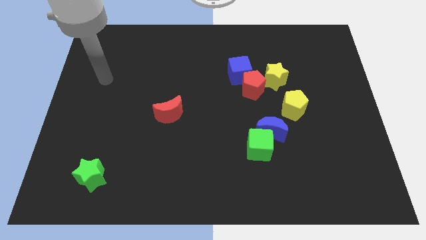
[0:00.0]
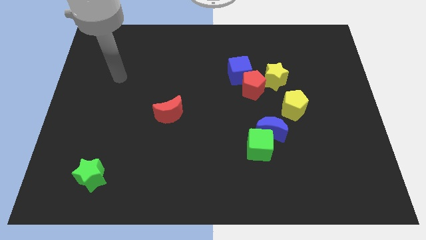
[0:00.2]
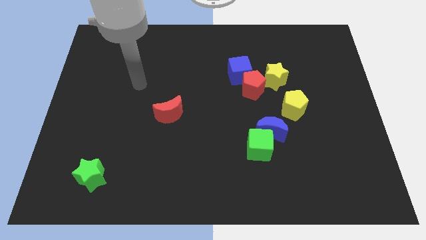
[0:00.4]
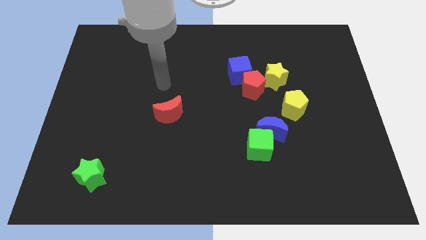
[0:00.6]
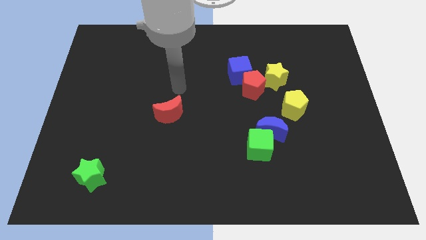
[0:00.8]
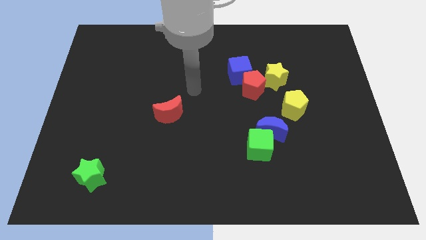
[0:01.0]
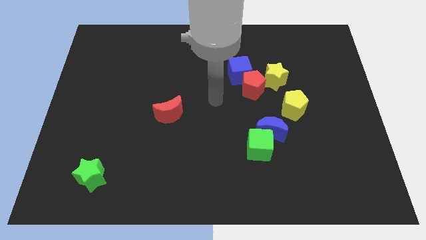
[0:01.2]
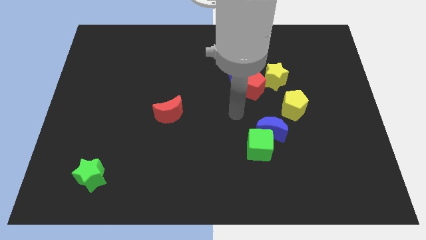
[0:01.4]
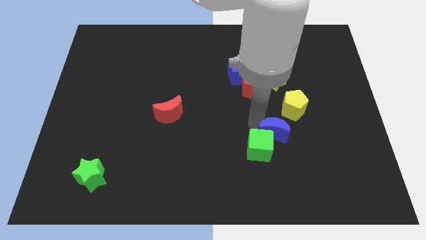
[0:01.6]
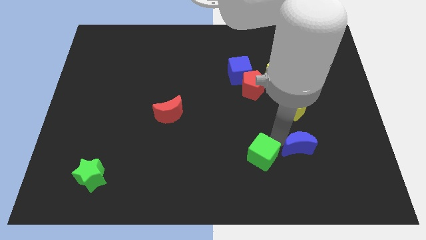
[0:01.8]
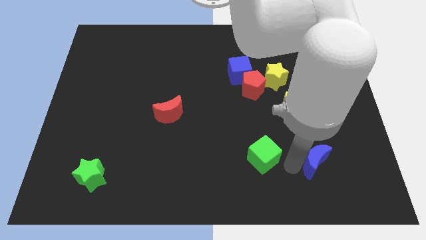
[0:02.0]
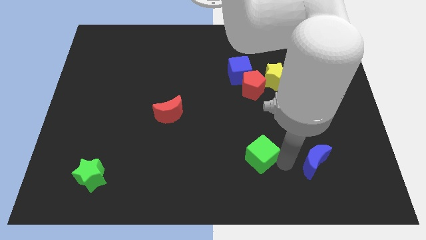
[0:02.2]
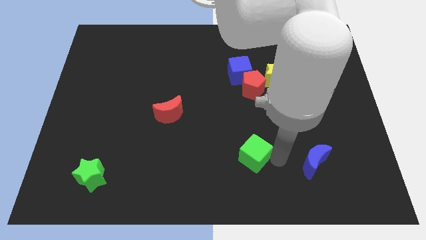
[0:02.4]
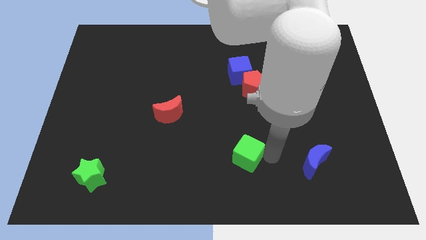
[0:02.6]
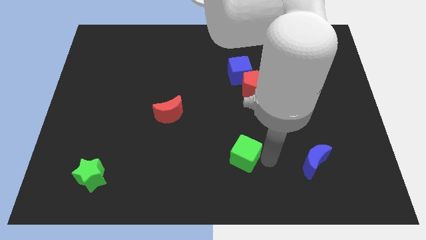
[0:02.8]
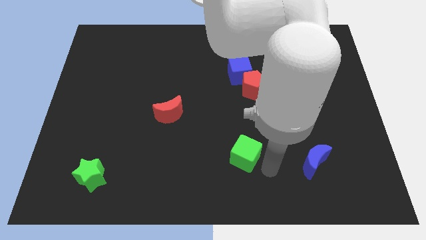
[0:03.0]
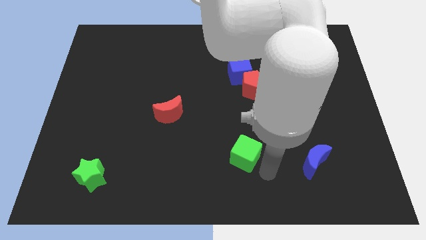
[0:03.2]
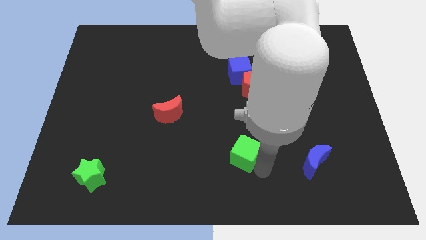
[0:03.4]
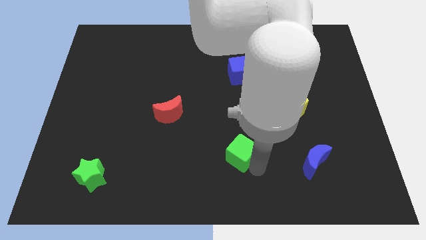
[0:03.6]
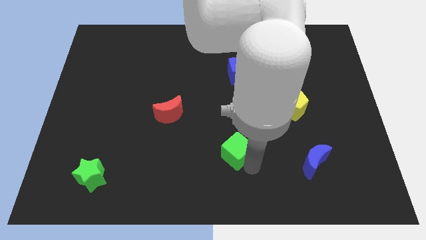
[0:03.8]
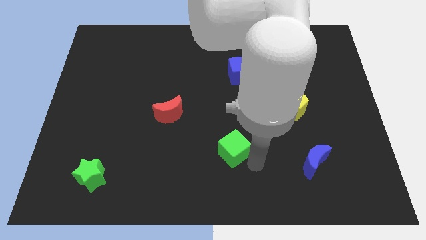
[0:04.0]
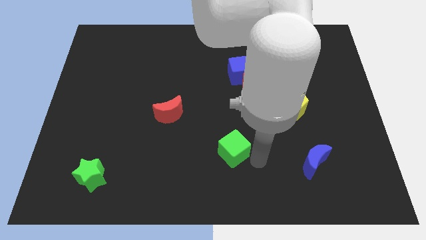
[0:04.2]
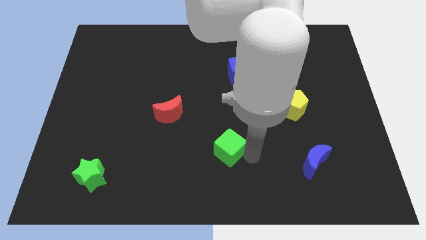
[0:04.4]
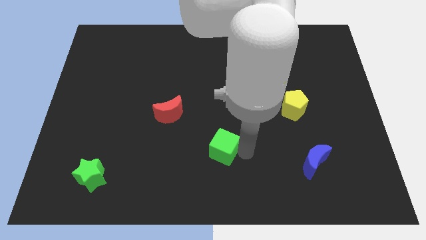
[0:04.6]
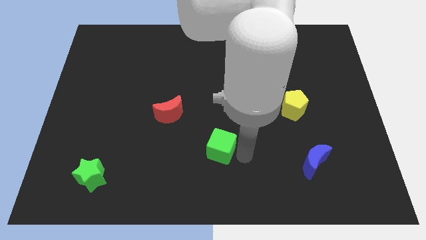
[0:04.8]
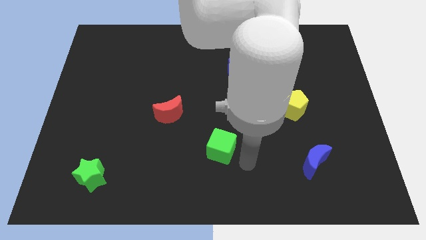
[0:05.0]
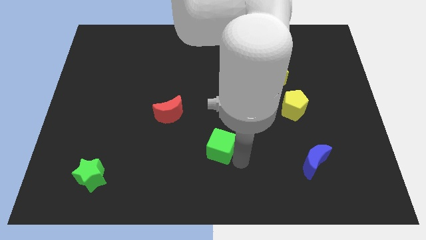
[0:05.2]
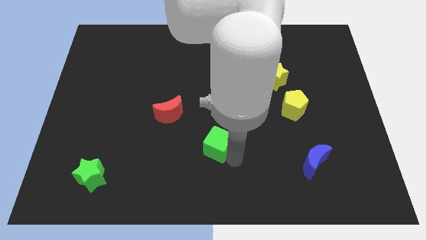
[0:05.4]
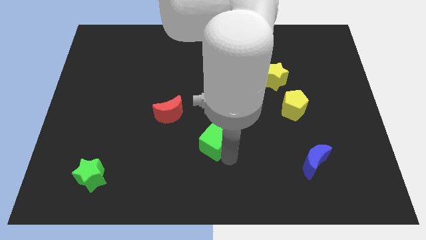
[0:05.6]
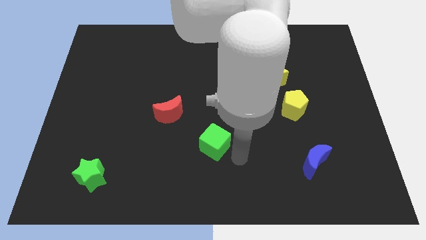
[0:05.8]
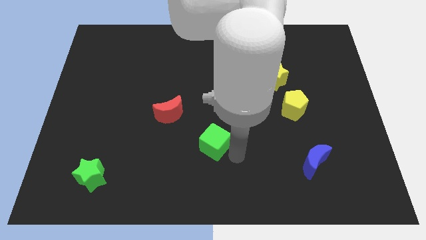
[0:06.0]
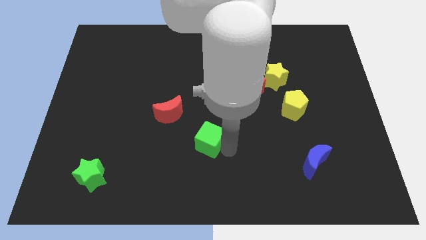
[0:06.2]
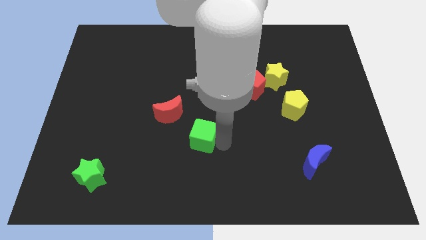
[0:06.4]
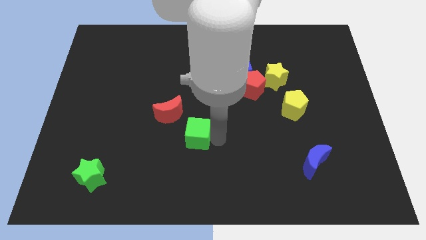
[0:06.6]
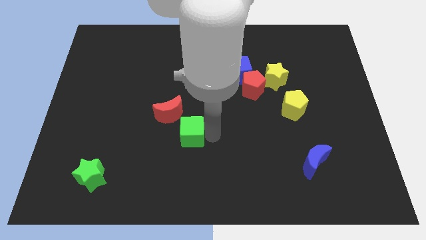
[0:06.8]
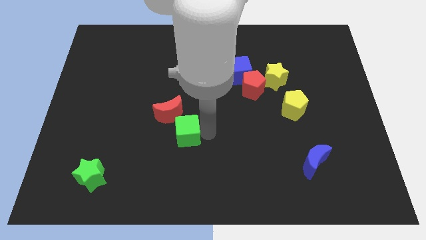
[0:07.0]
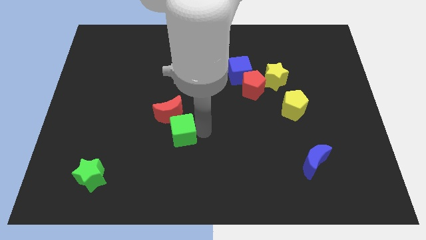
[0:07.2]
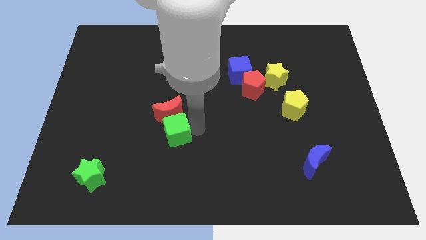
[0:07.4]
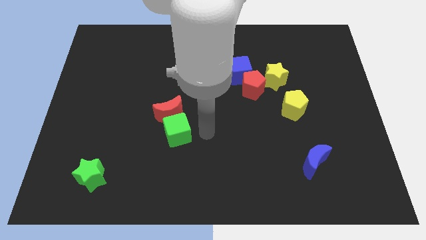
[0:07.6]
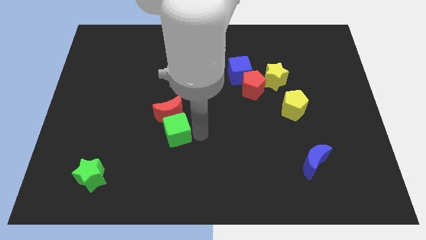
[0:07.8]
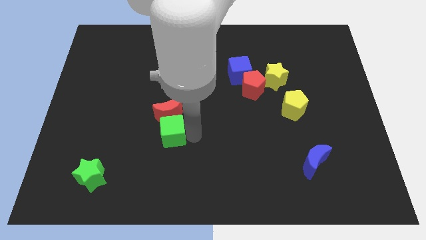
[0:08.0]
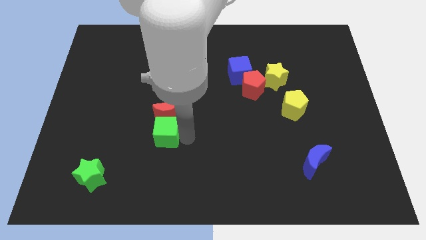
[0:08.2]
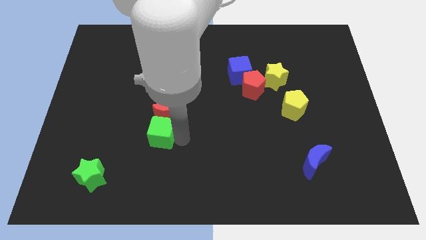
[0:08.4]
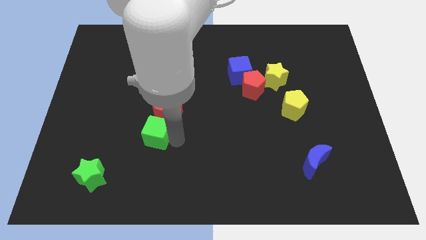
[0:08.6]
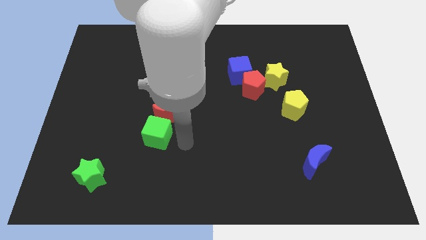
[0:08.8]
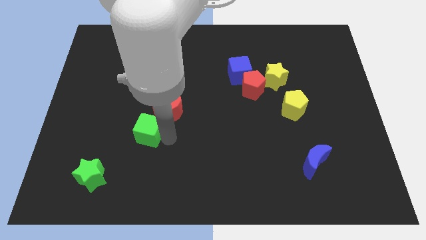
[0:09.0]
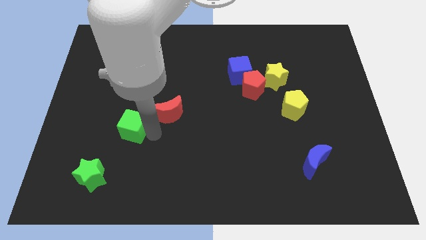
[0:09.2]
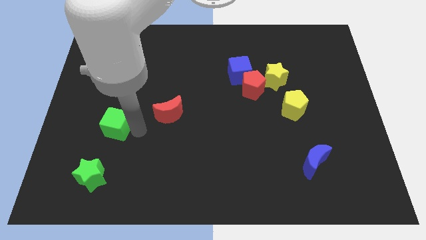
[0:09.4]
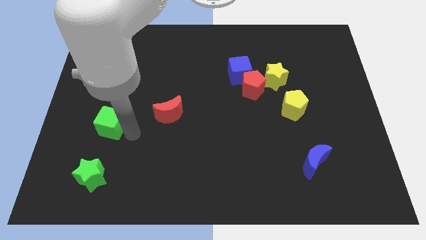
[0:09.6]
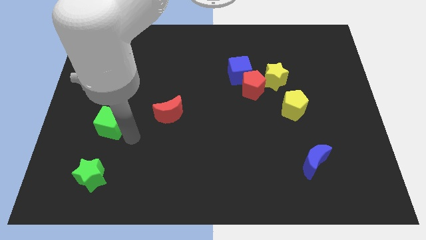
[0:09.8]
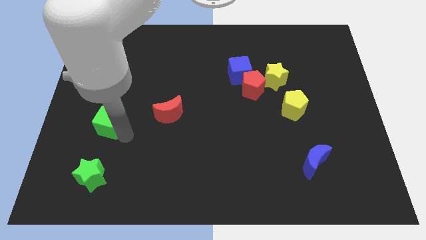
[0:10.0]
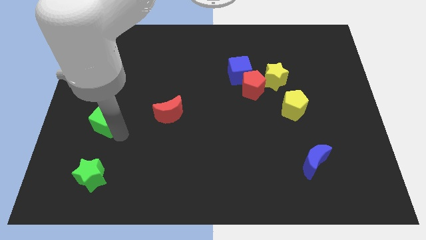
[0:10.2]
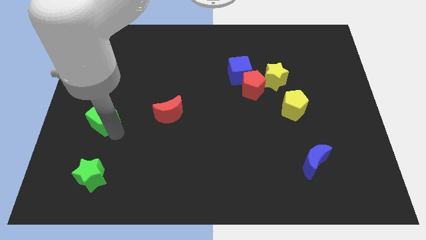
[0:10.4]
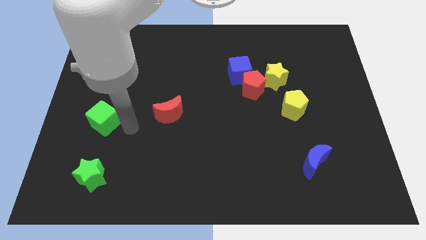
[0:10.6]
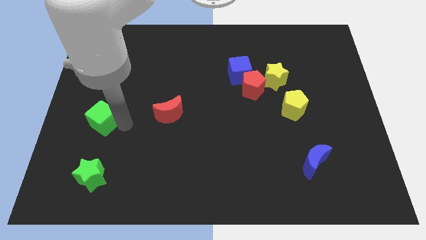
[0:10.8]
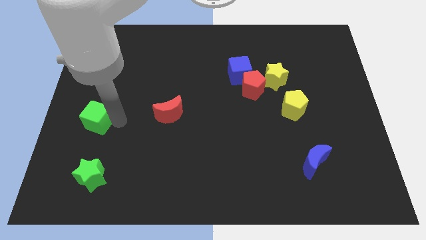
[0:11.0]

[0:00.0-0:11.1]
push the green cube to the left side

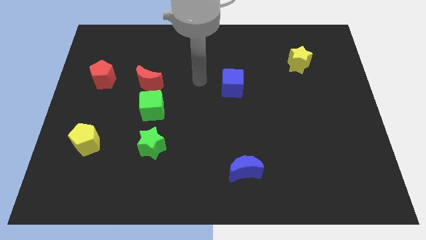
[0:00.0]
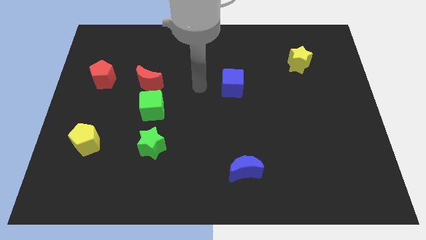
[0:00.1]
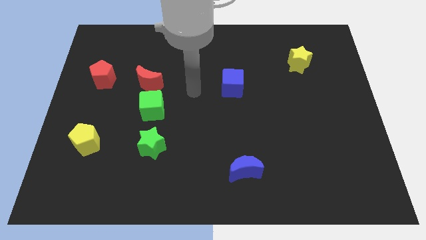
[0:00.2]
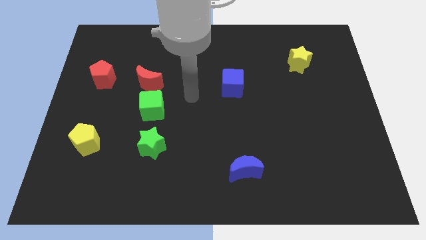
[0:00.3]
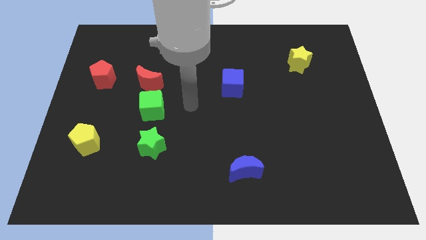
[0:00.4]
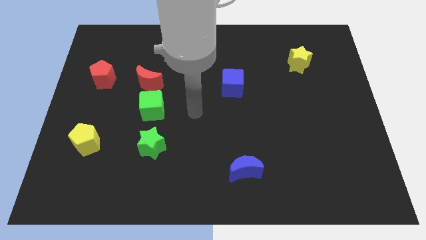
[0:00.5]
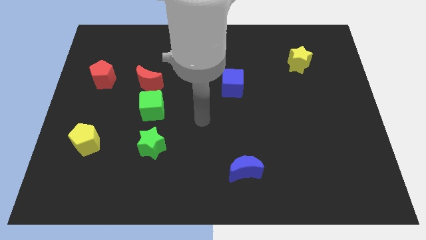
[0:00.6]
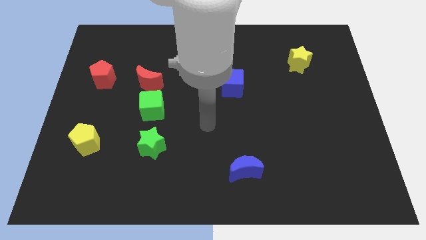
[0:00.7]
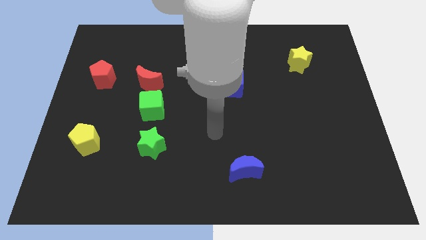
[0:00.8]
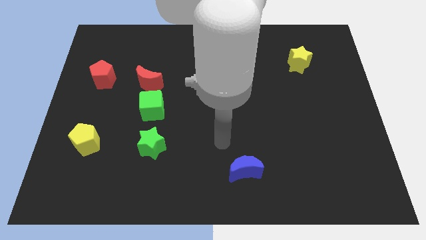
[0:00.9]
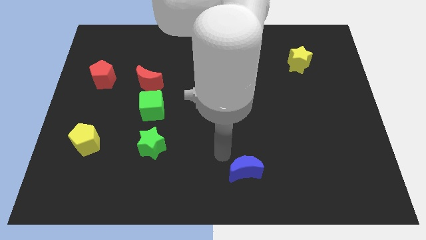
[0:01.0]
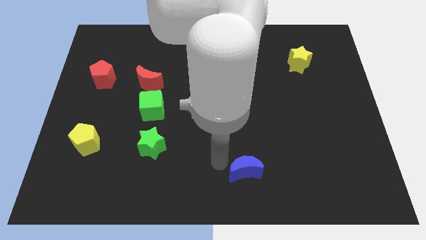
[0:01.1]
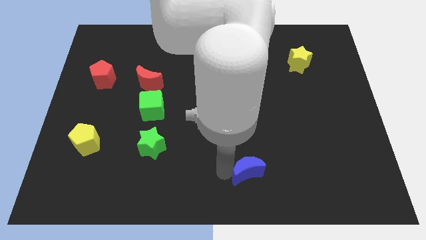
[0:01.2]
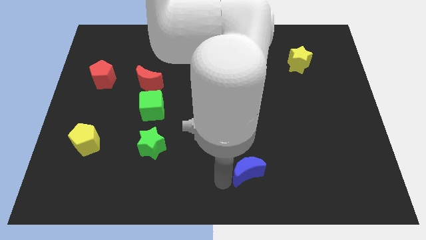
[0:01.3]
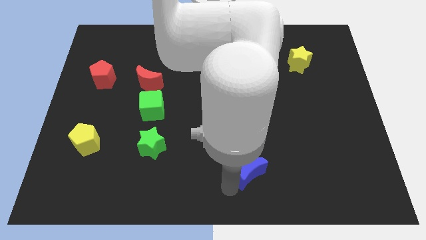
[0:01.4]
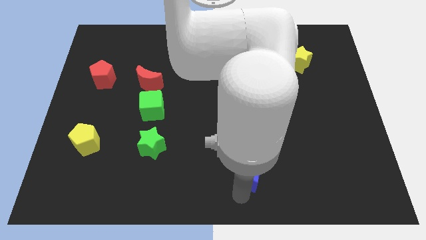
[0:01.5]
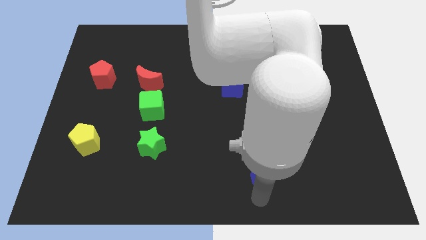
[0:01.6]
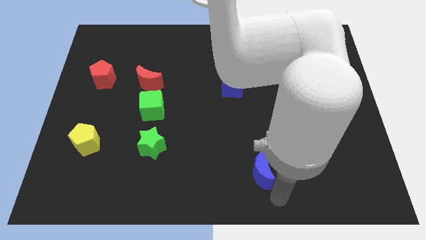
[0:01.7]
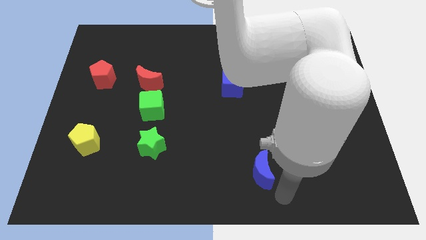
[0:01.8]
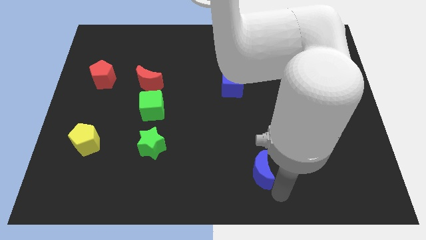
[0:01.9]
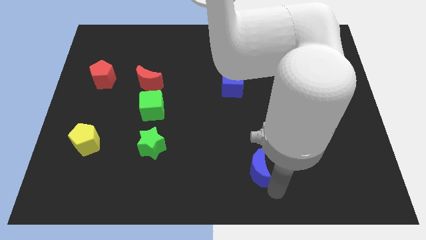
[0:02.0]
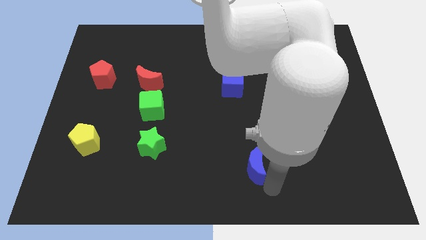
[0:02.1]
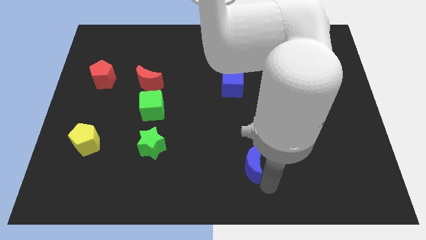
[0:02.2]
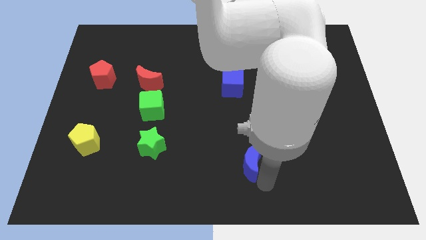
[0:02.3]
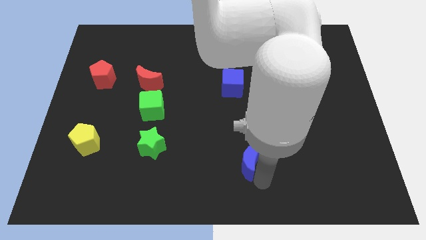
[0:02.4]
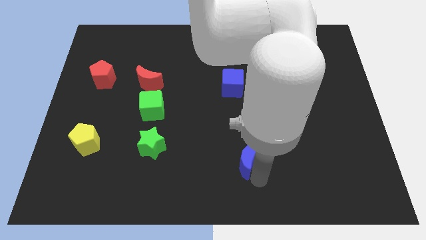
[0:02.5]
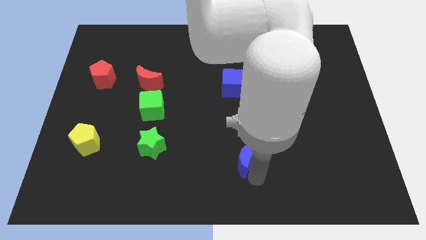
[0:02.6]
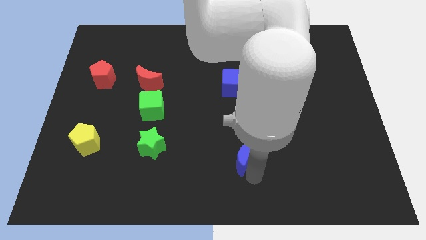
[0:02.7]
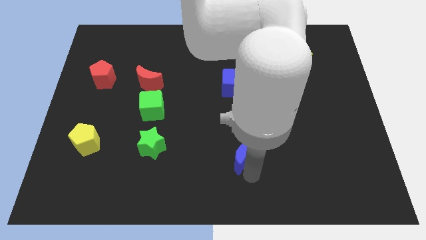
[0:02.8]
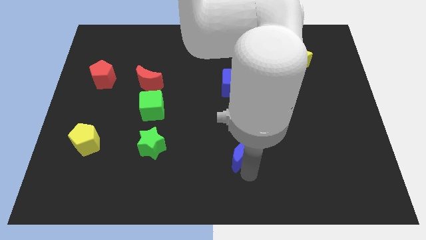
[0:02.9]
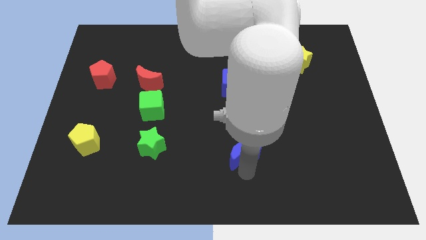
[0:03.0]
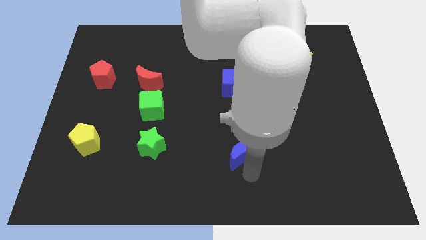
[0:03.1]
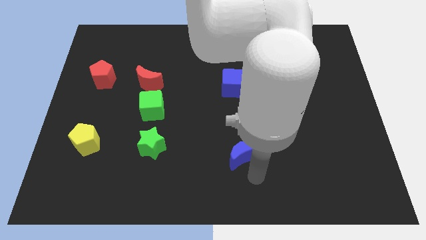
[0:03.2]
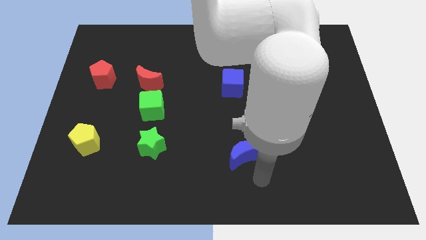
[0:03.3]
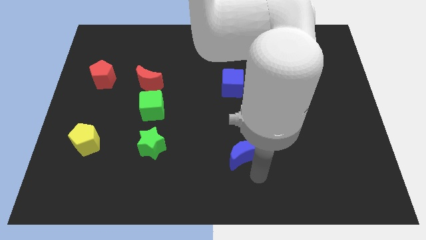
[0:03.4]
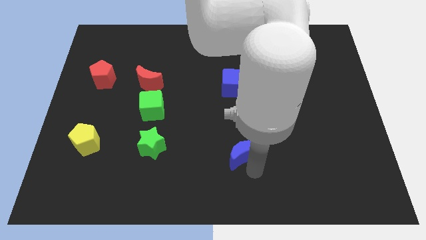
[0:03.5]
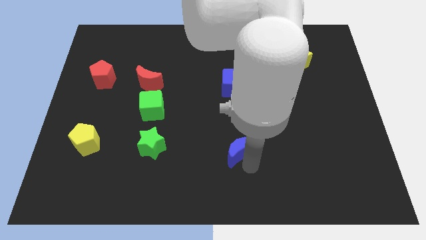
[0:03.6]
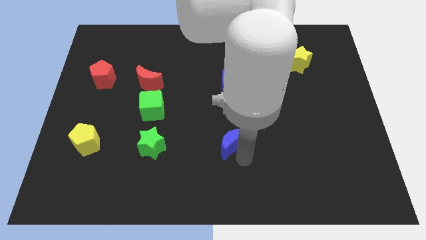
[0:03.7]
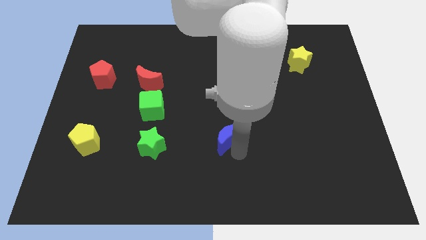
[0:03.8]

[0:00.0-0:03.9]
put the blue moon to the middle
